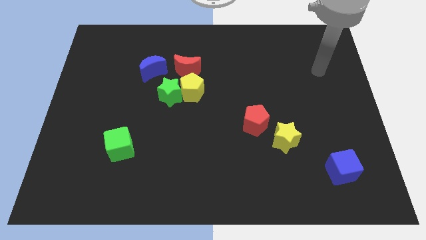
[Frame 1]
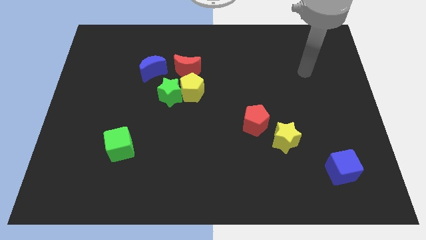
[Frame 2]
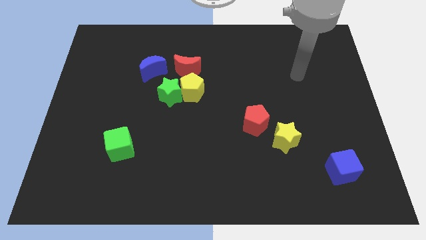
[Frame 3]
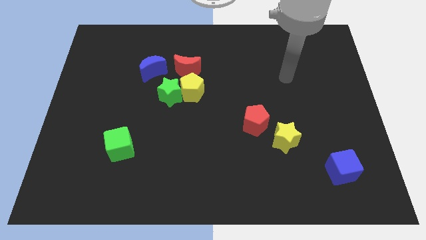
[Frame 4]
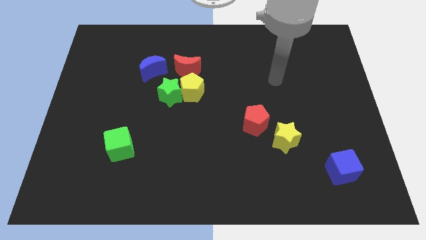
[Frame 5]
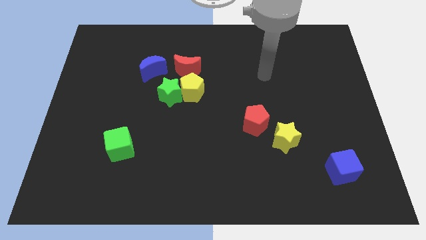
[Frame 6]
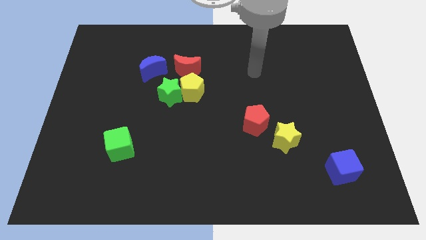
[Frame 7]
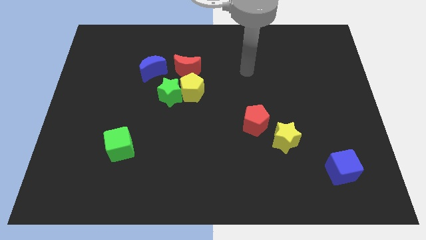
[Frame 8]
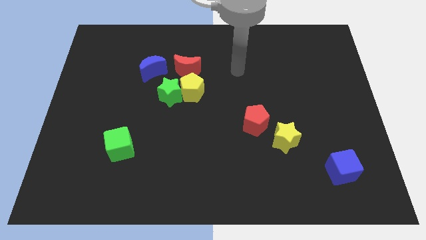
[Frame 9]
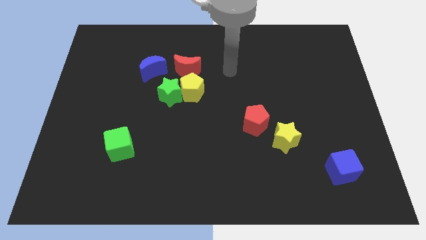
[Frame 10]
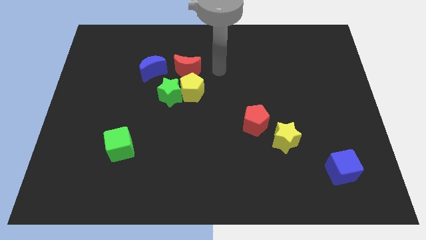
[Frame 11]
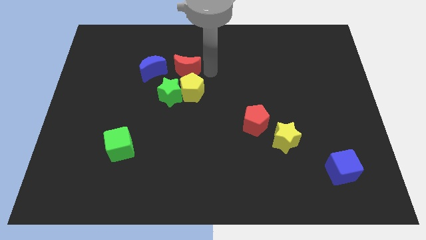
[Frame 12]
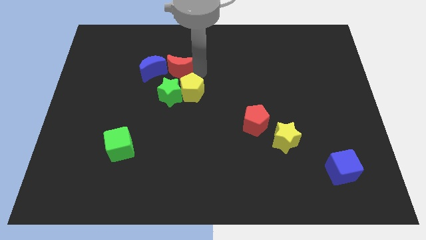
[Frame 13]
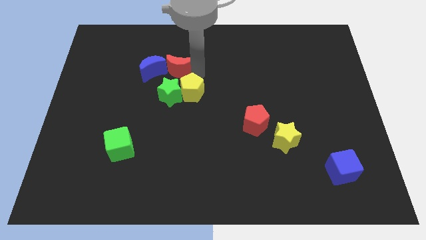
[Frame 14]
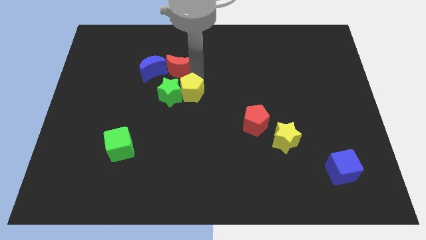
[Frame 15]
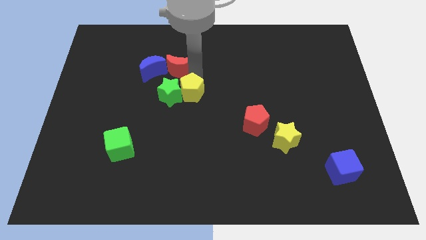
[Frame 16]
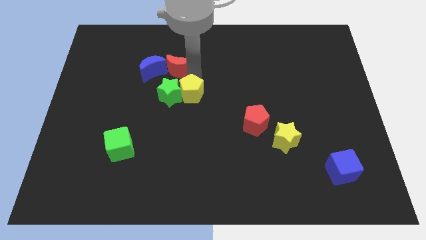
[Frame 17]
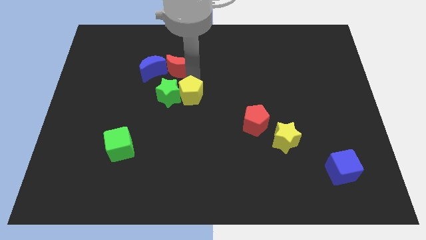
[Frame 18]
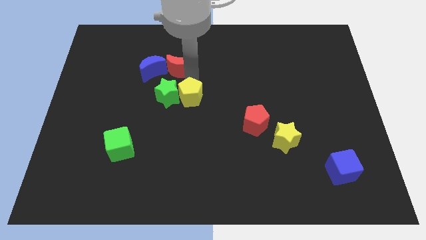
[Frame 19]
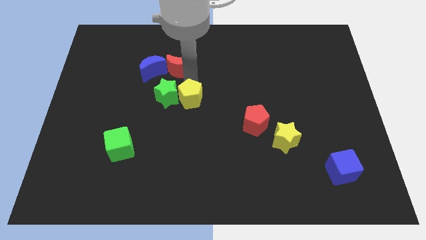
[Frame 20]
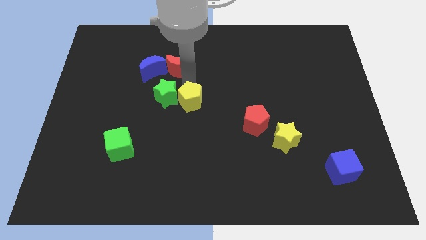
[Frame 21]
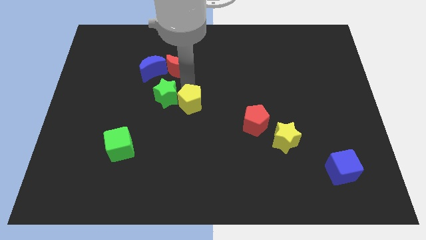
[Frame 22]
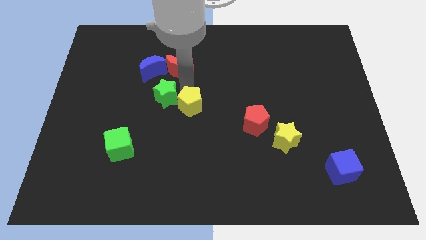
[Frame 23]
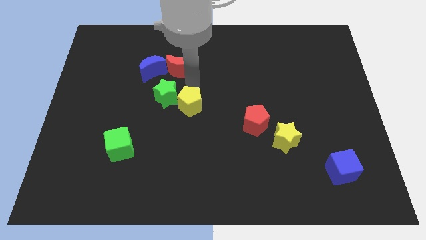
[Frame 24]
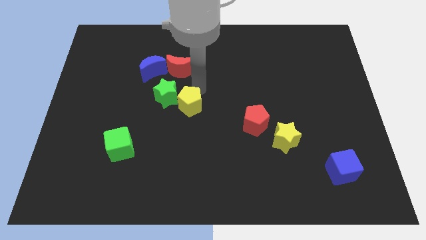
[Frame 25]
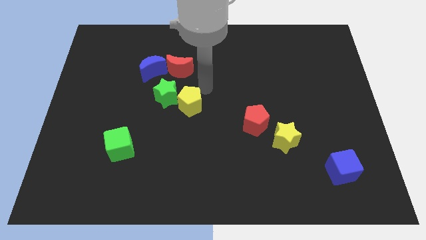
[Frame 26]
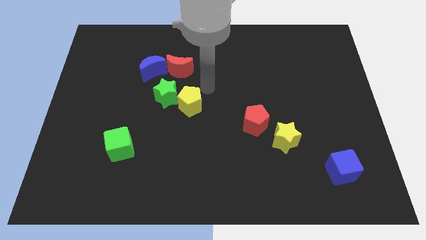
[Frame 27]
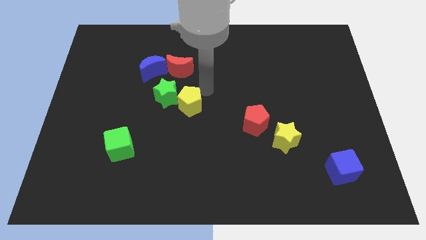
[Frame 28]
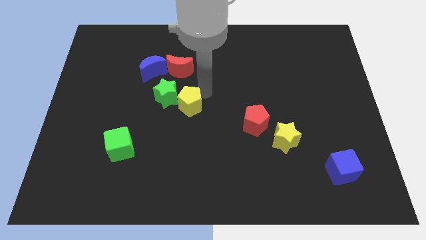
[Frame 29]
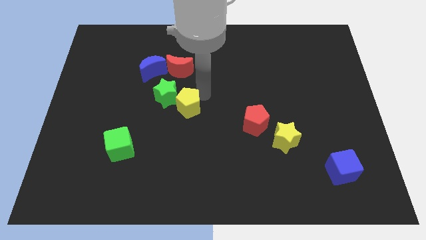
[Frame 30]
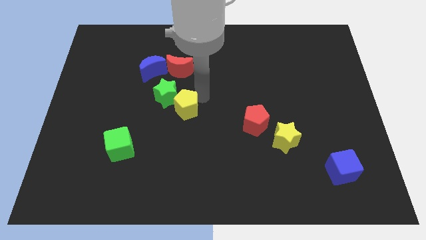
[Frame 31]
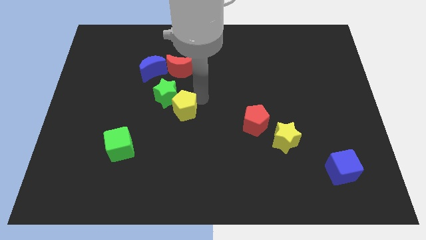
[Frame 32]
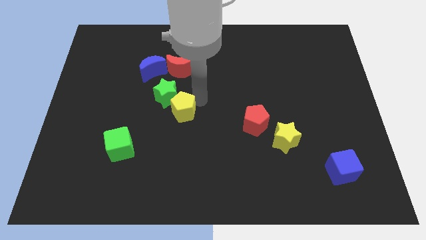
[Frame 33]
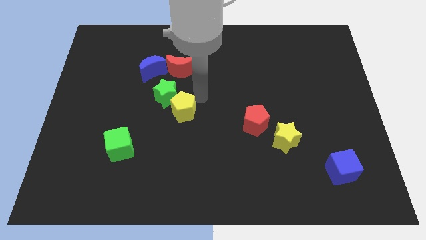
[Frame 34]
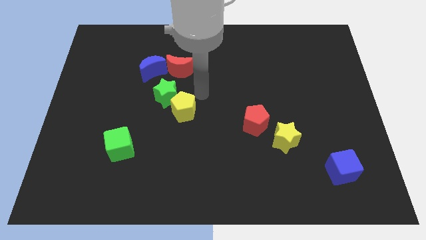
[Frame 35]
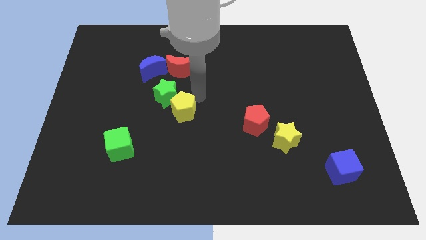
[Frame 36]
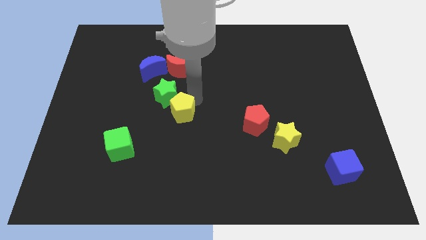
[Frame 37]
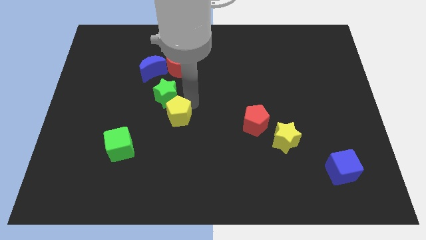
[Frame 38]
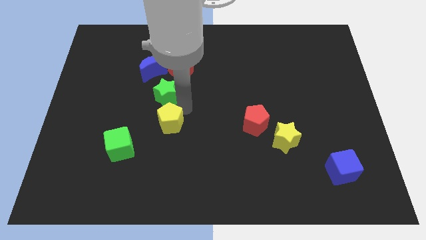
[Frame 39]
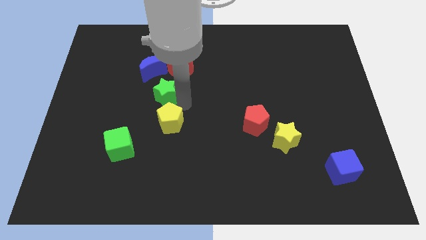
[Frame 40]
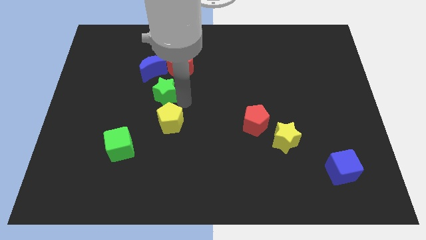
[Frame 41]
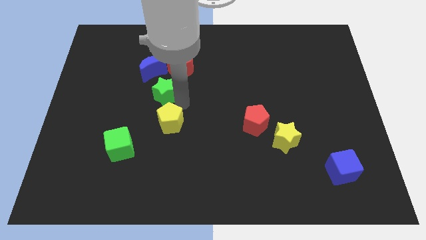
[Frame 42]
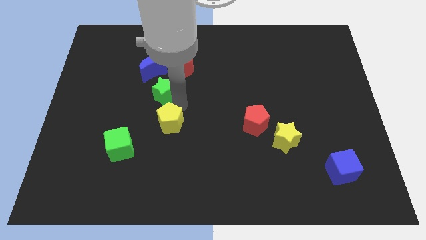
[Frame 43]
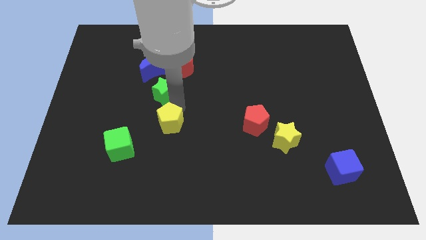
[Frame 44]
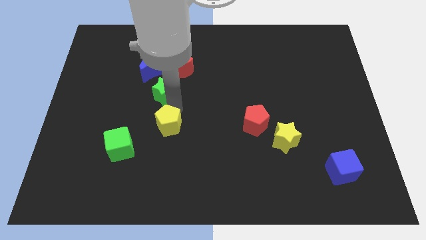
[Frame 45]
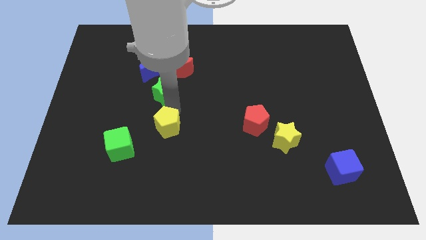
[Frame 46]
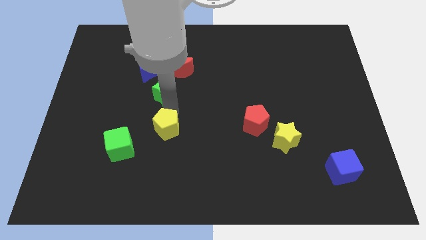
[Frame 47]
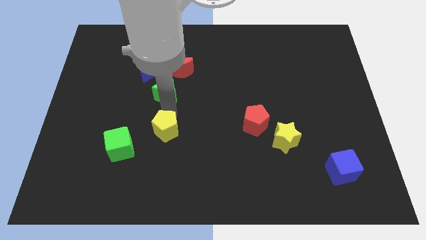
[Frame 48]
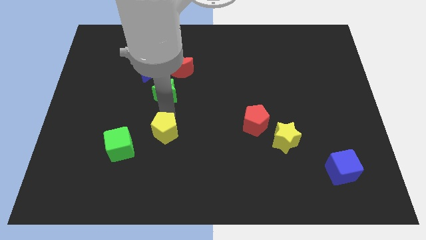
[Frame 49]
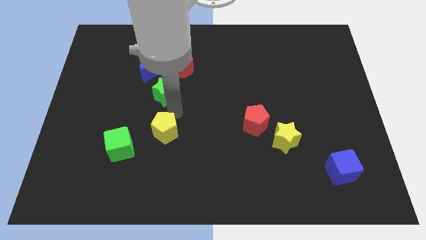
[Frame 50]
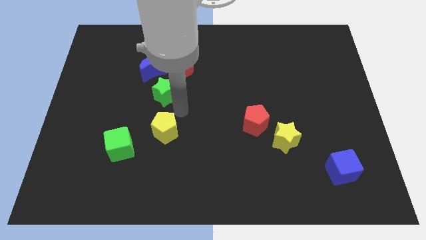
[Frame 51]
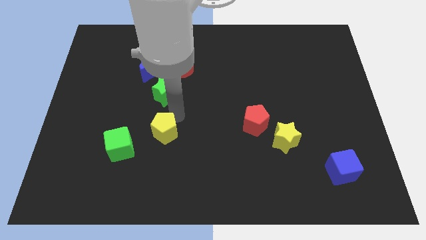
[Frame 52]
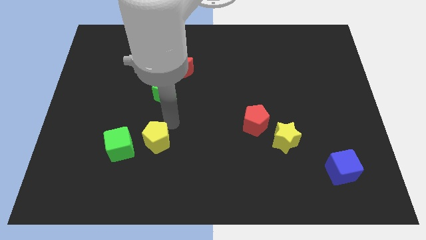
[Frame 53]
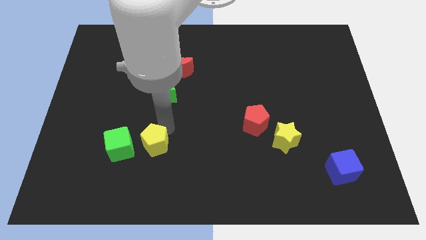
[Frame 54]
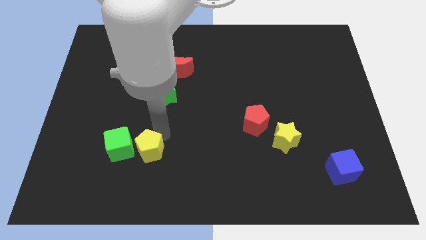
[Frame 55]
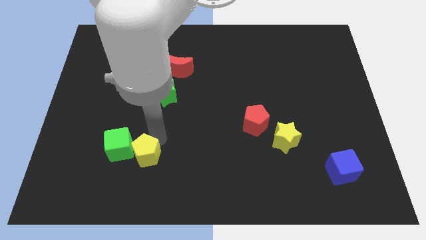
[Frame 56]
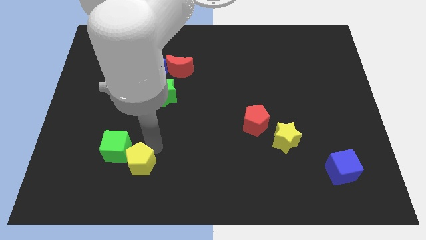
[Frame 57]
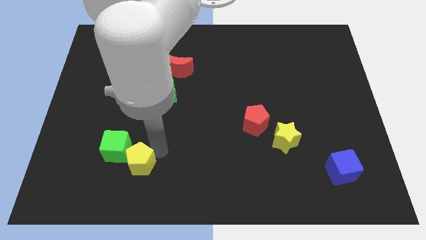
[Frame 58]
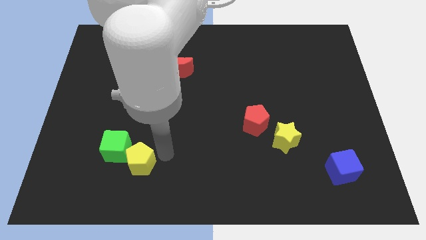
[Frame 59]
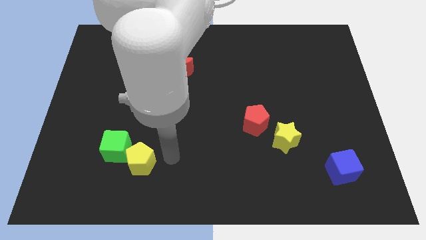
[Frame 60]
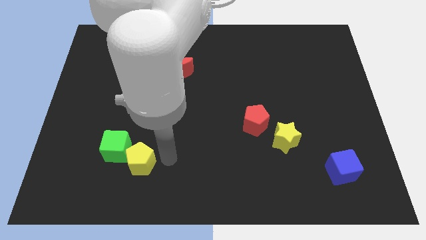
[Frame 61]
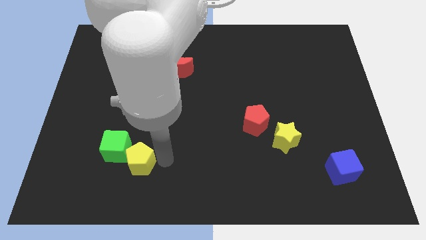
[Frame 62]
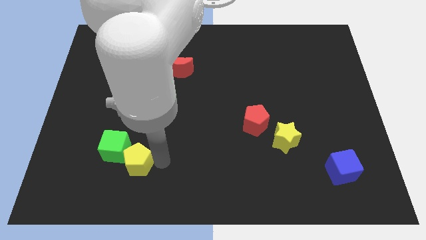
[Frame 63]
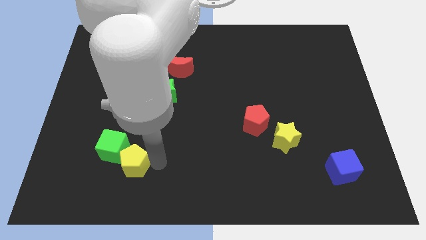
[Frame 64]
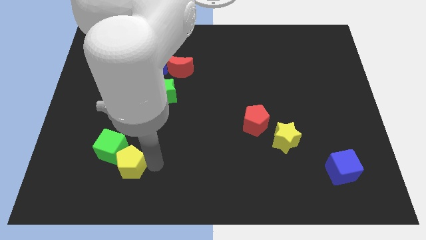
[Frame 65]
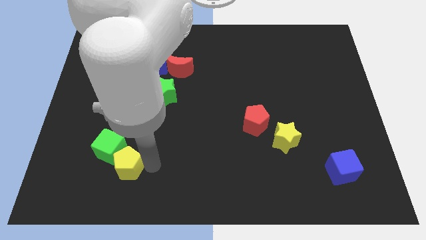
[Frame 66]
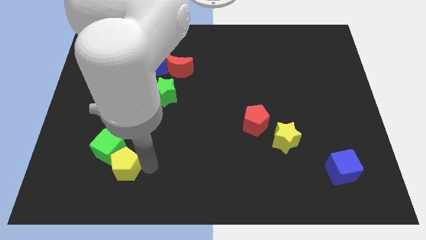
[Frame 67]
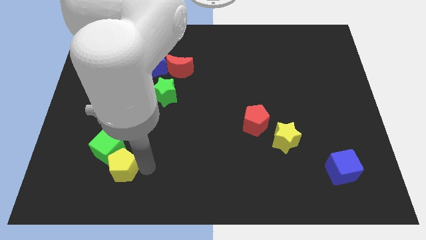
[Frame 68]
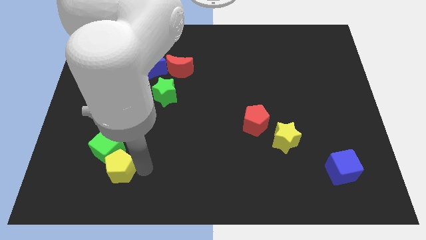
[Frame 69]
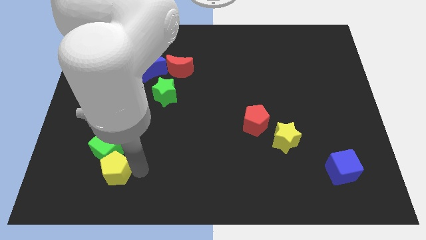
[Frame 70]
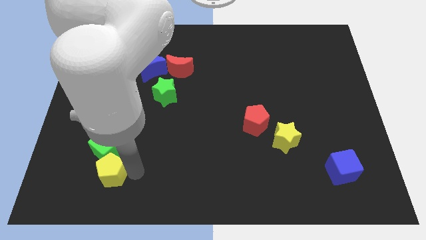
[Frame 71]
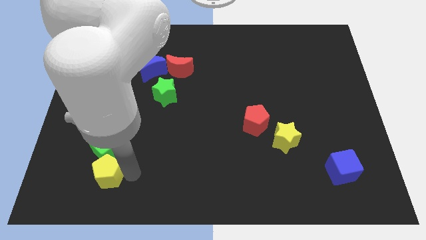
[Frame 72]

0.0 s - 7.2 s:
move the yellow pentagon to the bottom left of the green cube
